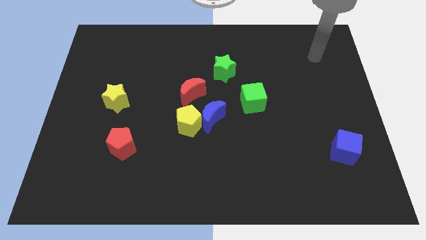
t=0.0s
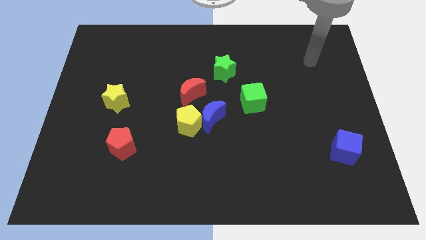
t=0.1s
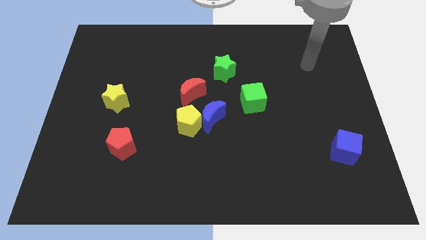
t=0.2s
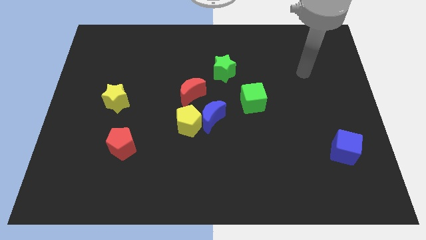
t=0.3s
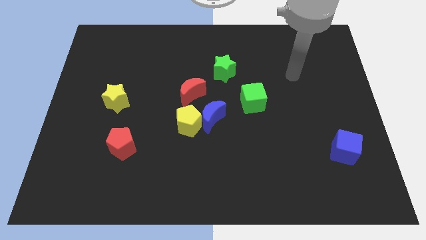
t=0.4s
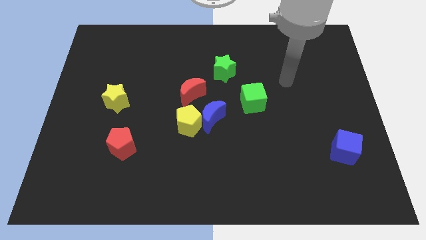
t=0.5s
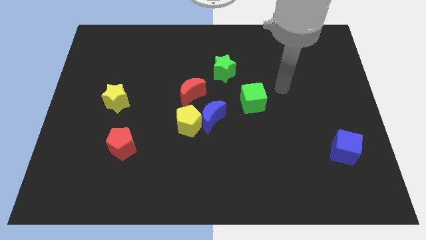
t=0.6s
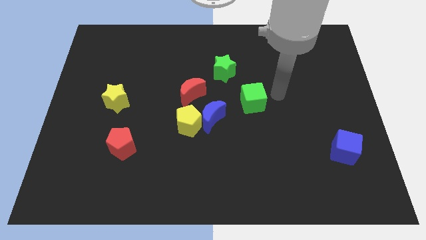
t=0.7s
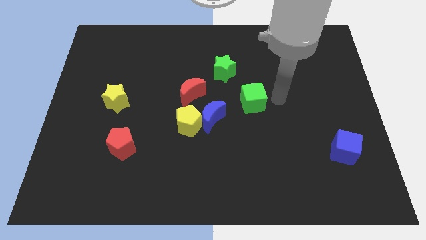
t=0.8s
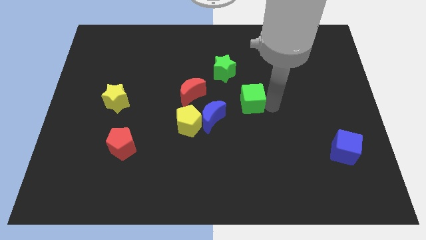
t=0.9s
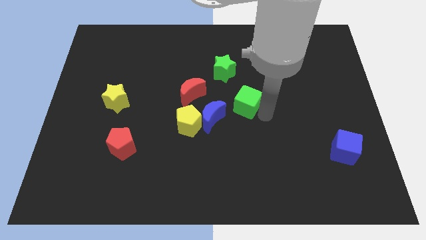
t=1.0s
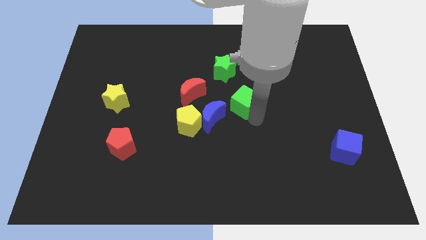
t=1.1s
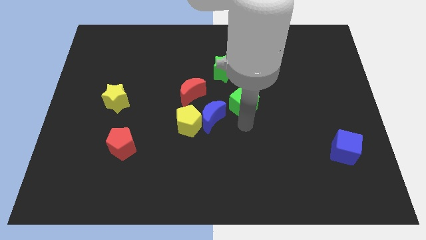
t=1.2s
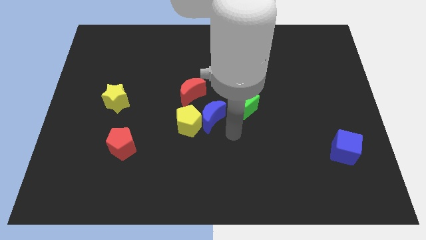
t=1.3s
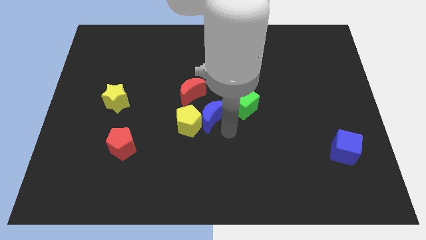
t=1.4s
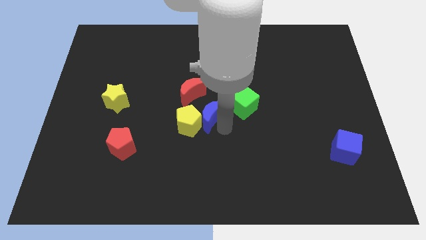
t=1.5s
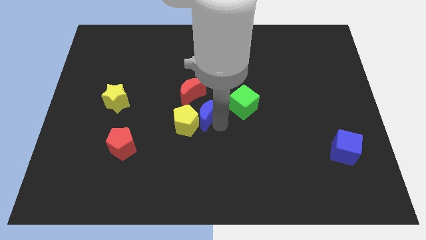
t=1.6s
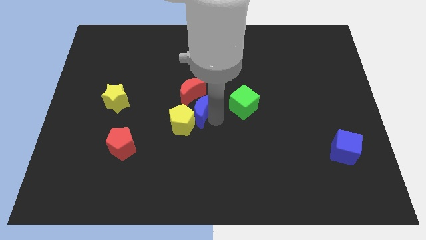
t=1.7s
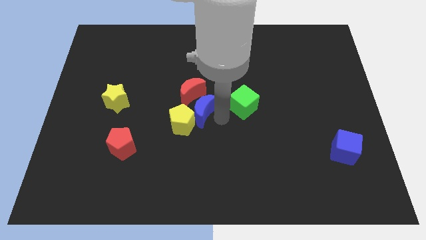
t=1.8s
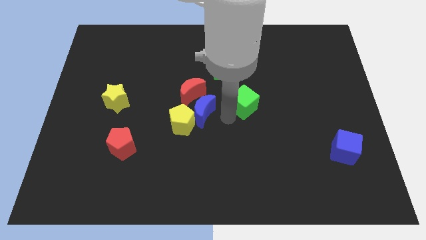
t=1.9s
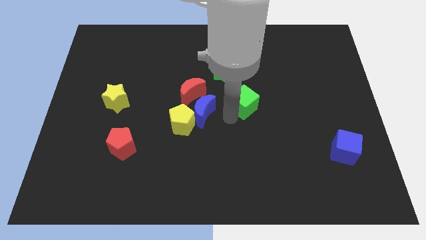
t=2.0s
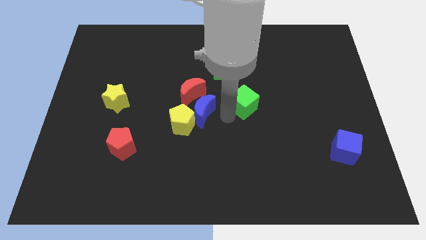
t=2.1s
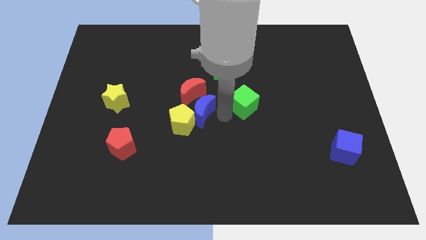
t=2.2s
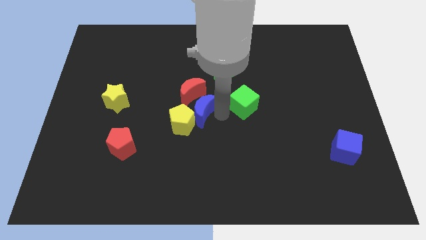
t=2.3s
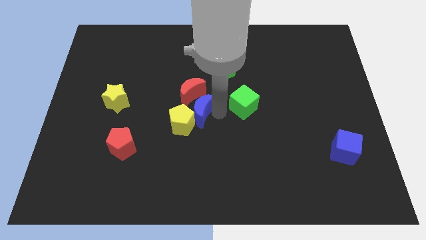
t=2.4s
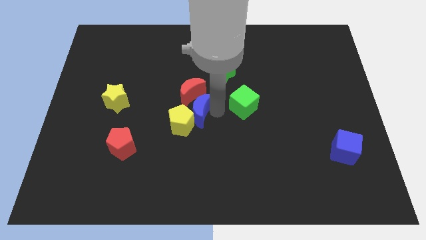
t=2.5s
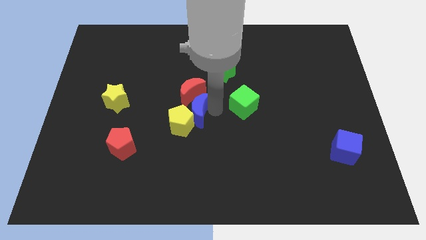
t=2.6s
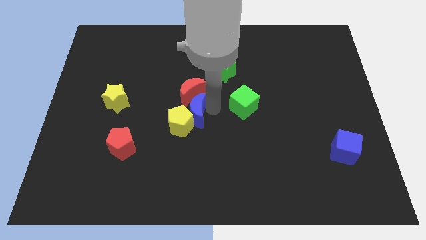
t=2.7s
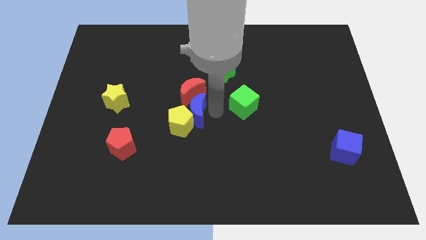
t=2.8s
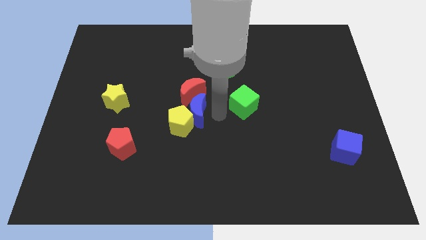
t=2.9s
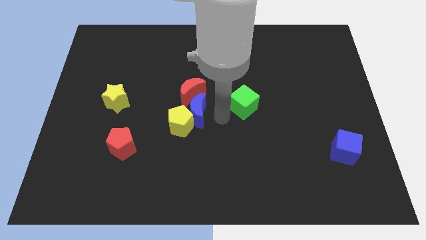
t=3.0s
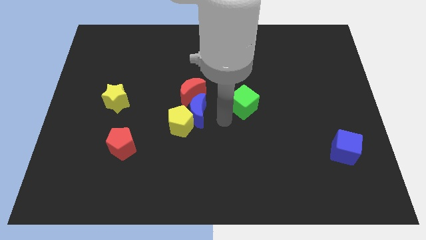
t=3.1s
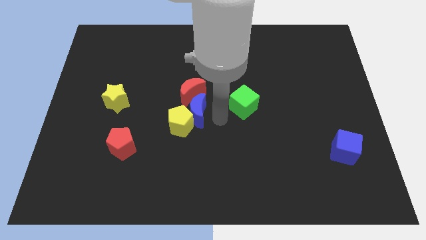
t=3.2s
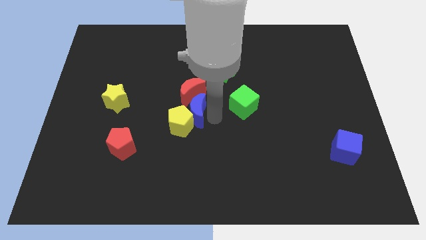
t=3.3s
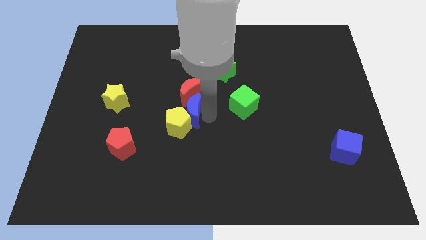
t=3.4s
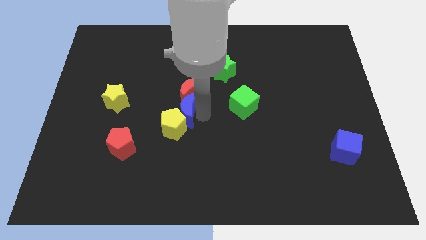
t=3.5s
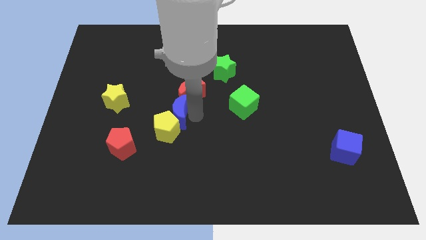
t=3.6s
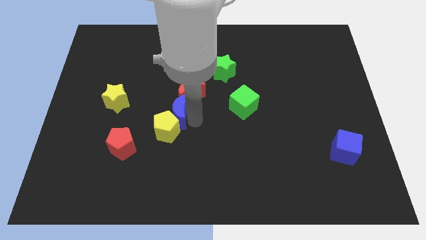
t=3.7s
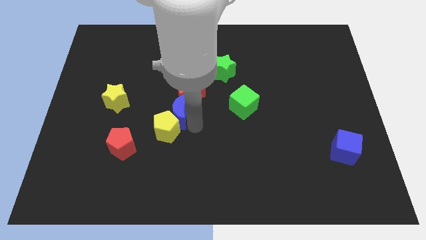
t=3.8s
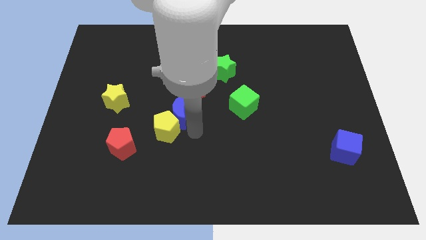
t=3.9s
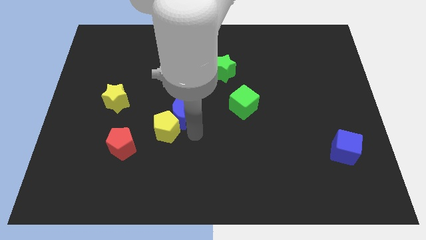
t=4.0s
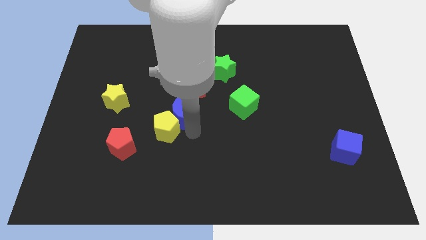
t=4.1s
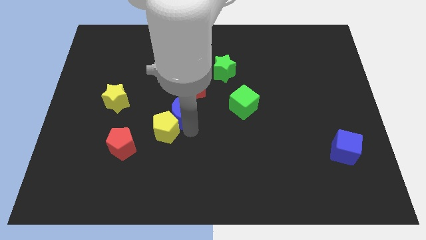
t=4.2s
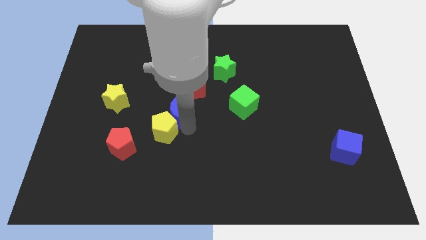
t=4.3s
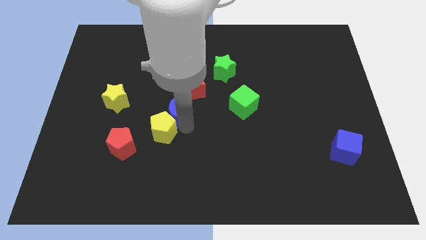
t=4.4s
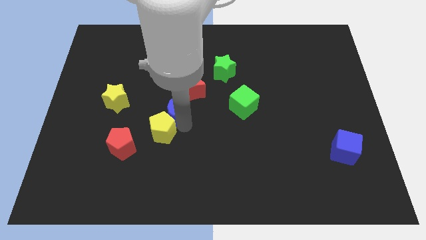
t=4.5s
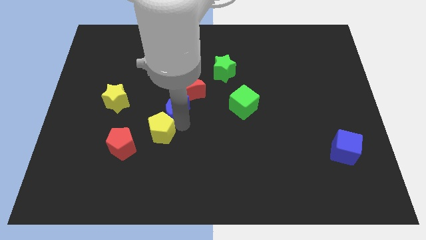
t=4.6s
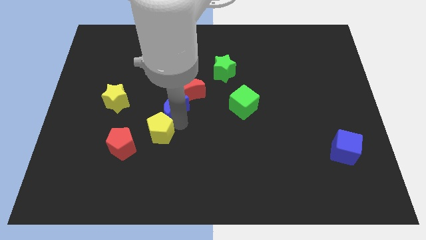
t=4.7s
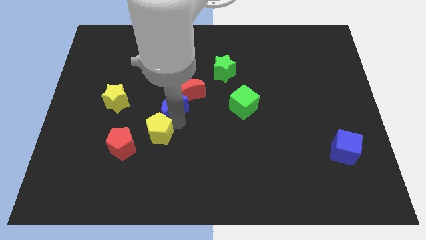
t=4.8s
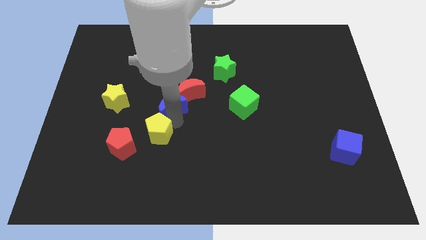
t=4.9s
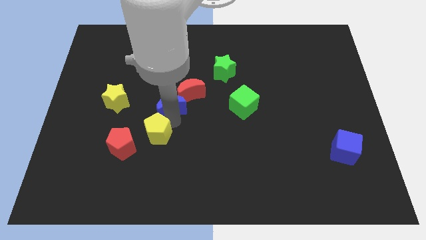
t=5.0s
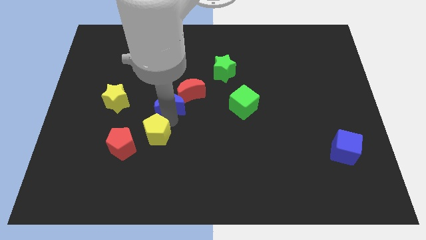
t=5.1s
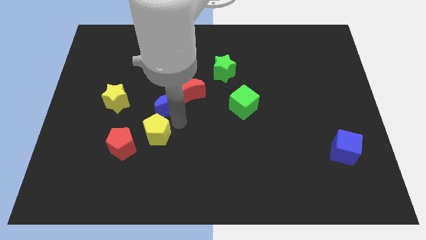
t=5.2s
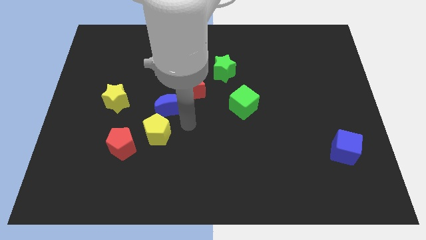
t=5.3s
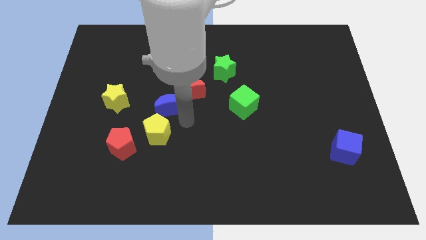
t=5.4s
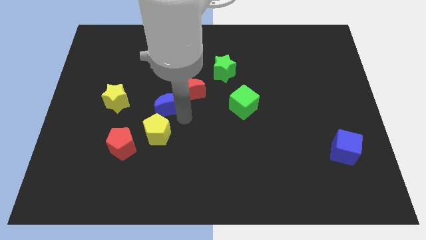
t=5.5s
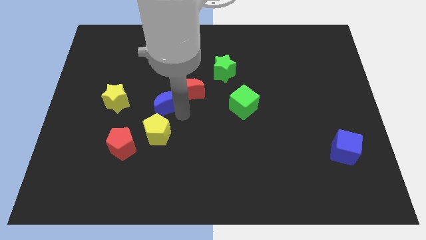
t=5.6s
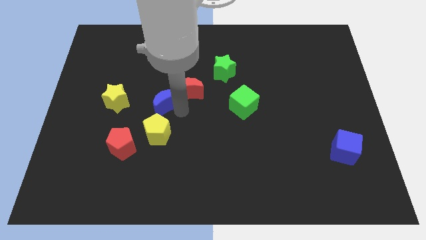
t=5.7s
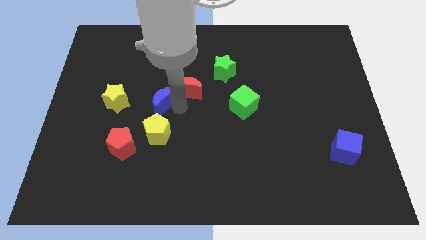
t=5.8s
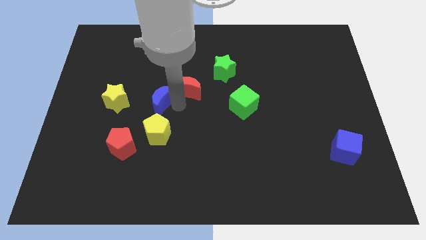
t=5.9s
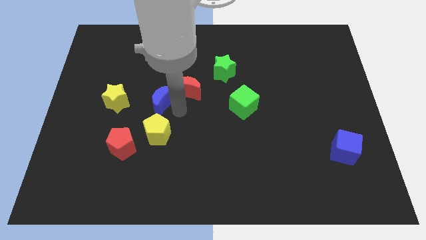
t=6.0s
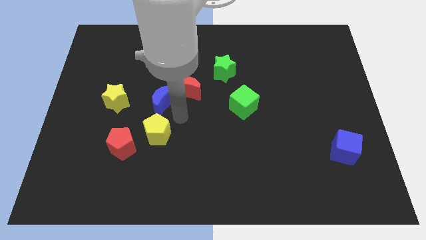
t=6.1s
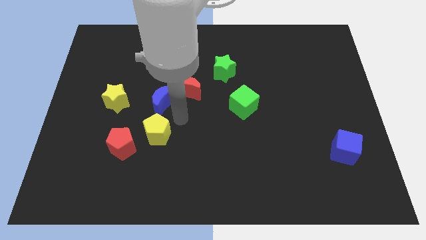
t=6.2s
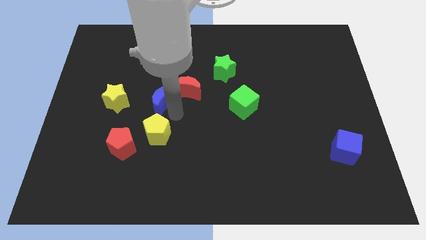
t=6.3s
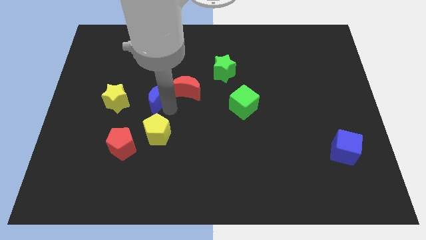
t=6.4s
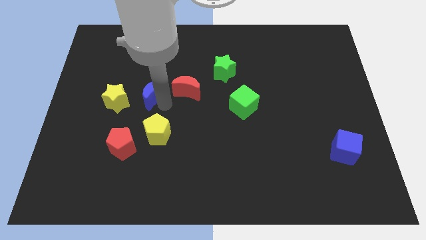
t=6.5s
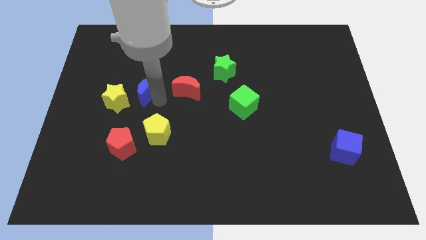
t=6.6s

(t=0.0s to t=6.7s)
put the blue moon to the top right of the yellow star

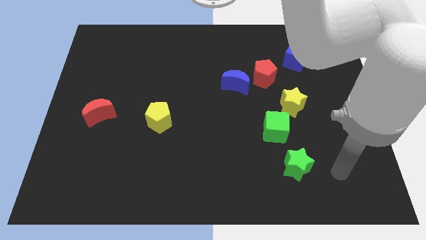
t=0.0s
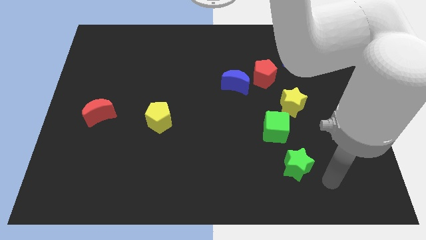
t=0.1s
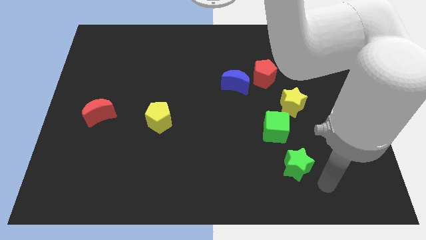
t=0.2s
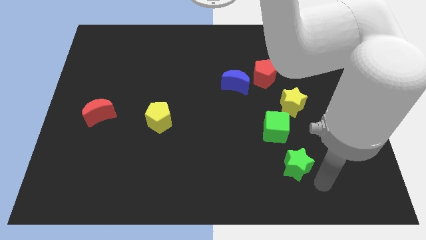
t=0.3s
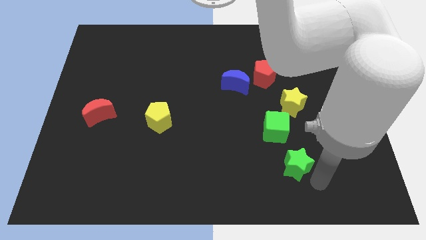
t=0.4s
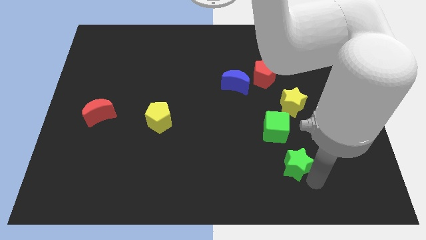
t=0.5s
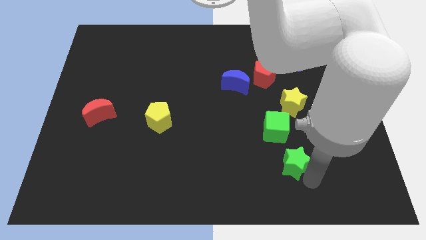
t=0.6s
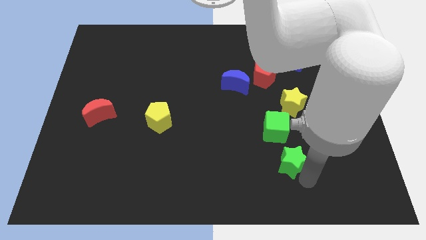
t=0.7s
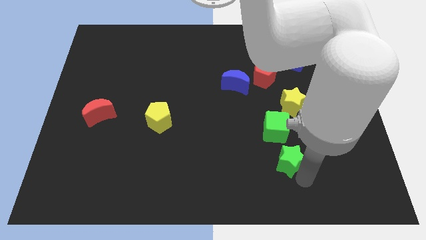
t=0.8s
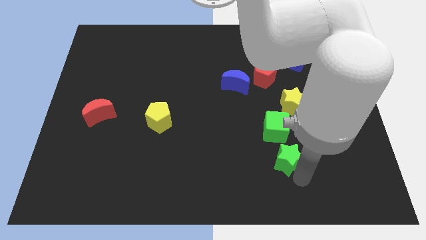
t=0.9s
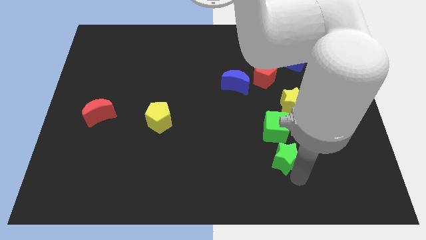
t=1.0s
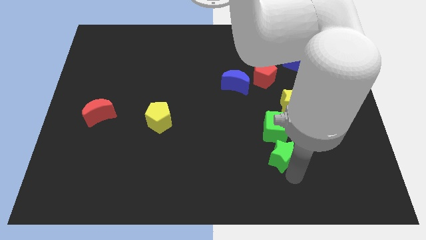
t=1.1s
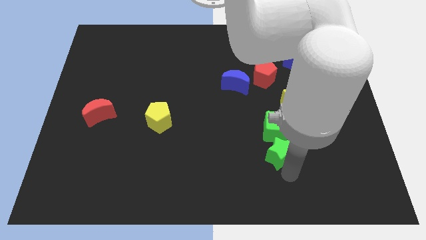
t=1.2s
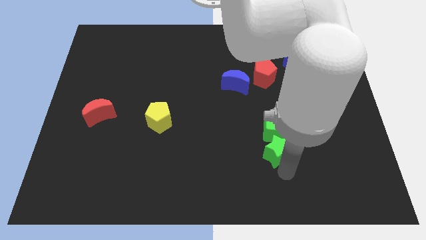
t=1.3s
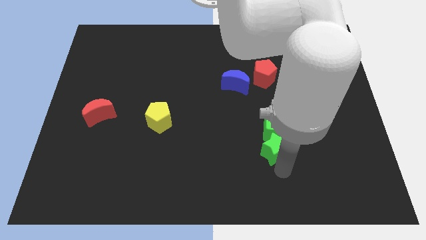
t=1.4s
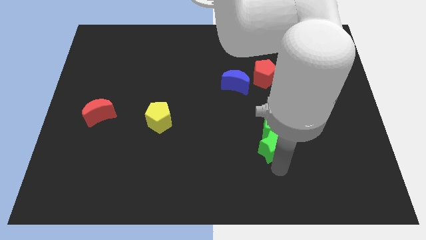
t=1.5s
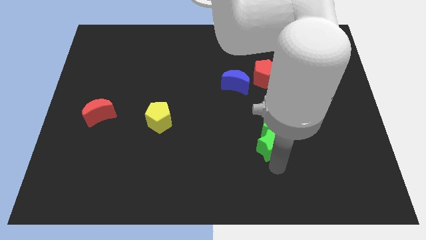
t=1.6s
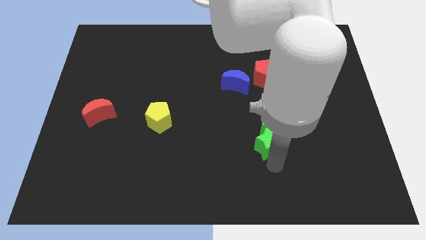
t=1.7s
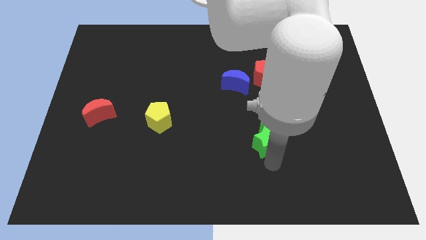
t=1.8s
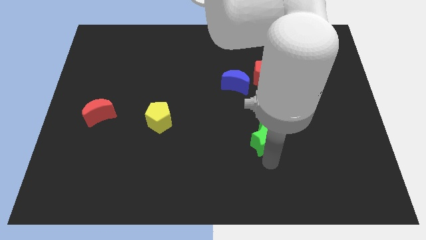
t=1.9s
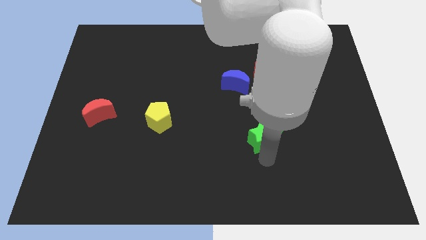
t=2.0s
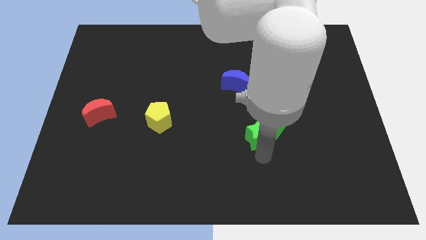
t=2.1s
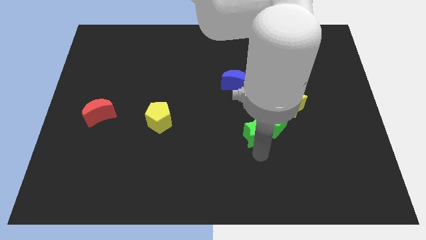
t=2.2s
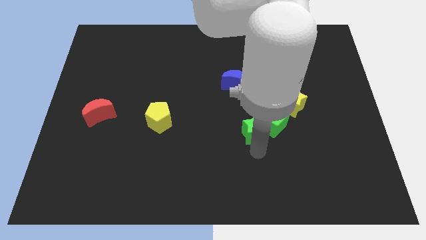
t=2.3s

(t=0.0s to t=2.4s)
push the green star to the bottom side of the blue moon
